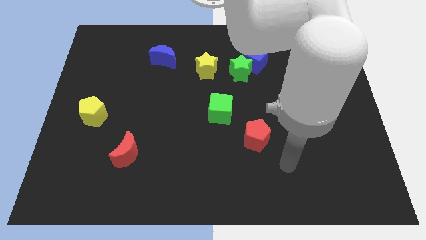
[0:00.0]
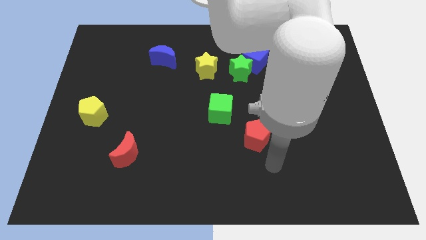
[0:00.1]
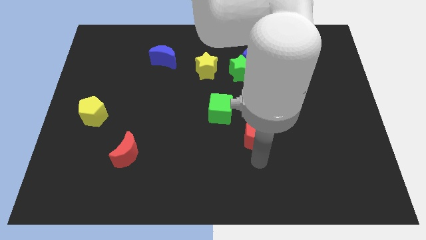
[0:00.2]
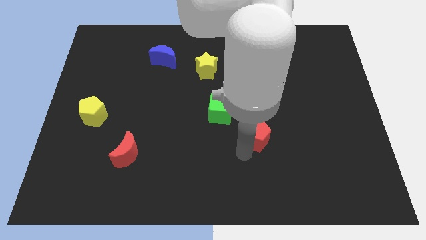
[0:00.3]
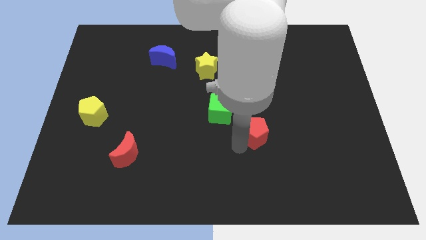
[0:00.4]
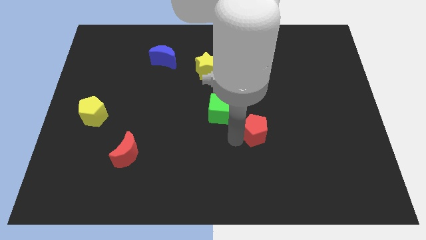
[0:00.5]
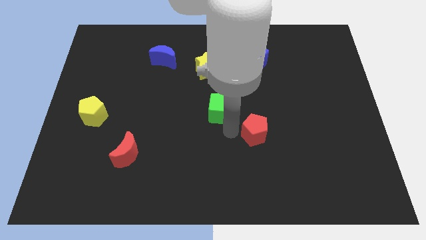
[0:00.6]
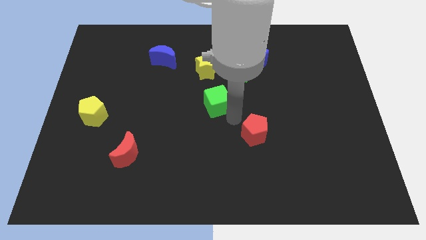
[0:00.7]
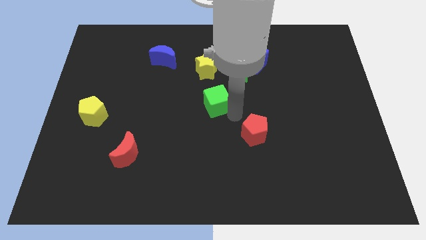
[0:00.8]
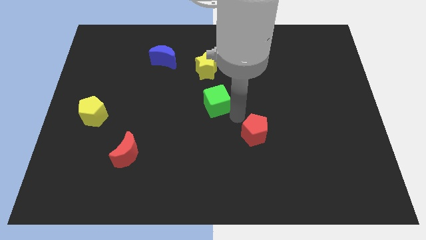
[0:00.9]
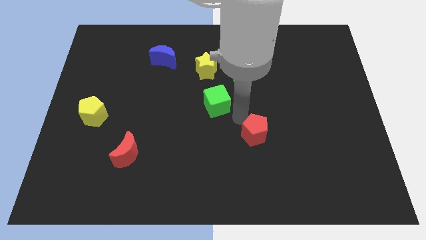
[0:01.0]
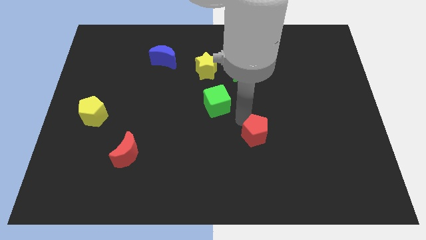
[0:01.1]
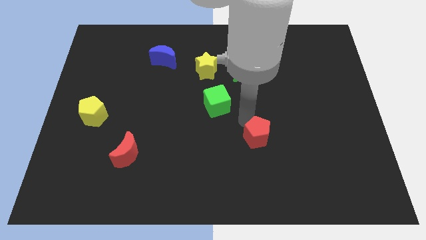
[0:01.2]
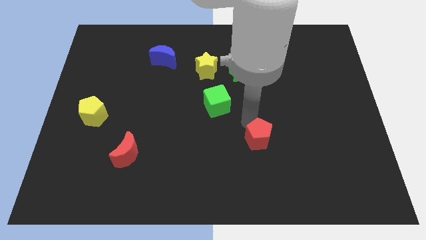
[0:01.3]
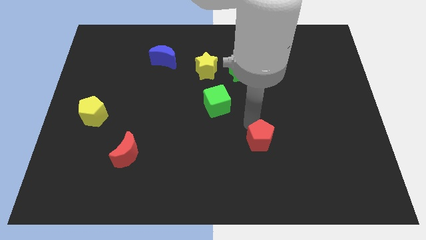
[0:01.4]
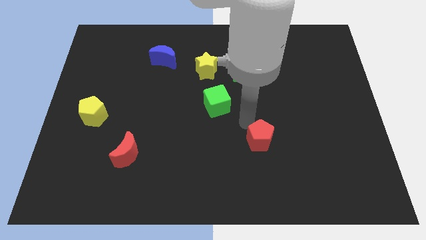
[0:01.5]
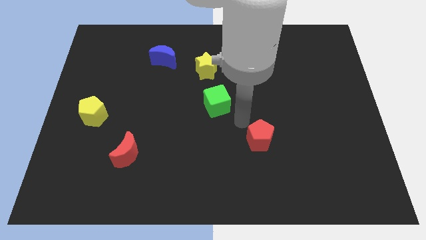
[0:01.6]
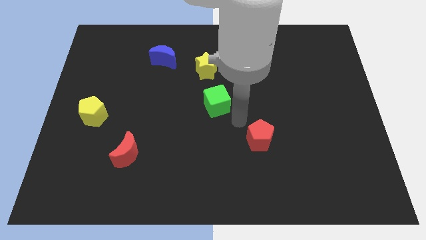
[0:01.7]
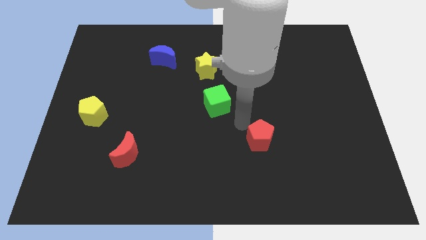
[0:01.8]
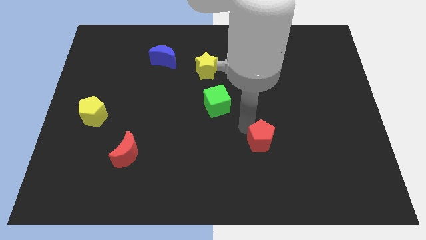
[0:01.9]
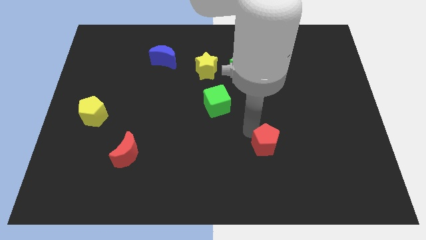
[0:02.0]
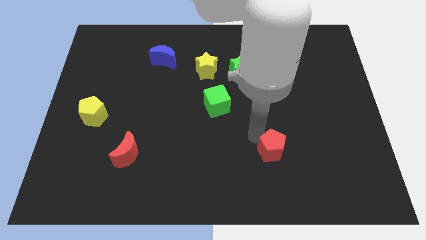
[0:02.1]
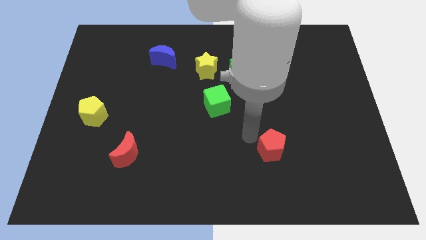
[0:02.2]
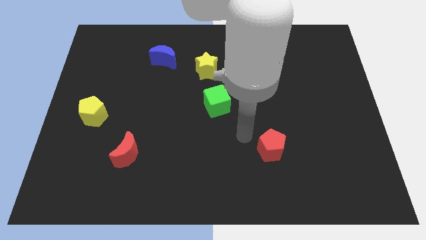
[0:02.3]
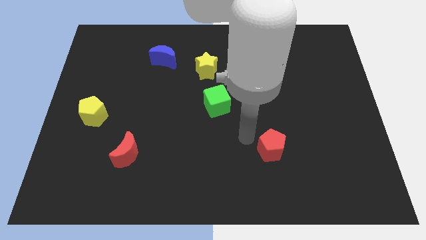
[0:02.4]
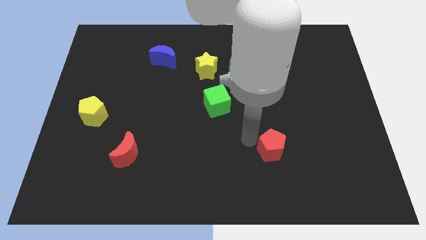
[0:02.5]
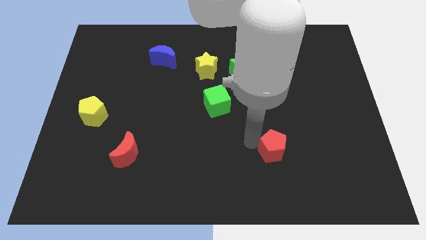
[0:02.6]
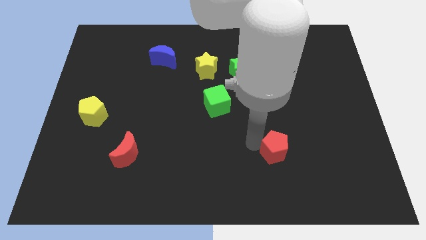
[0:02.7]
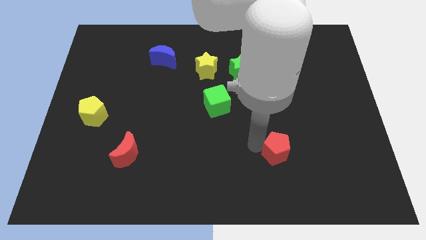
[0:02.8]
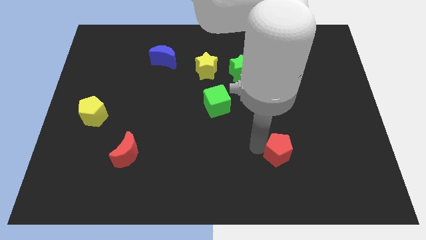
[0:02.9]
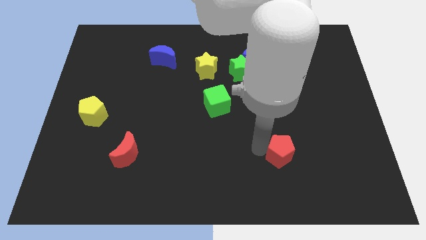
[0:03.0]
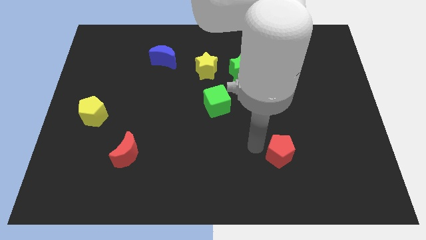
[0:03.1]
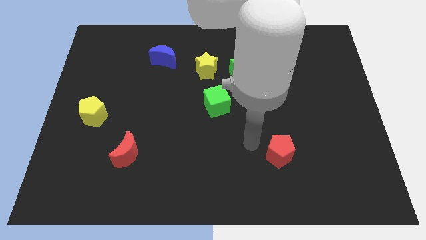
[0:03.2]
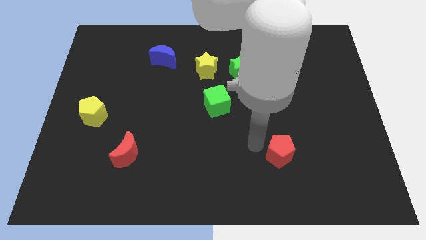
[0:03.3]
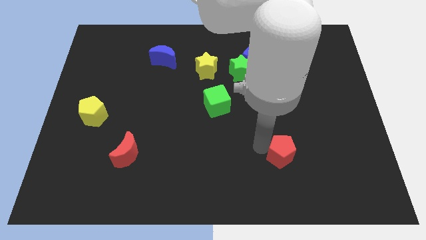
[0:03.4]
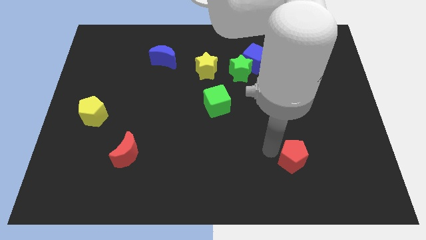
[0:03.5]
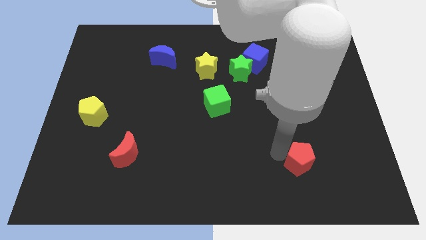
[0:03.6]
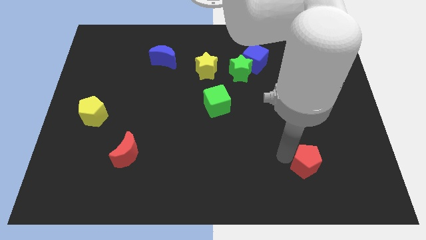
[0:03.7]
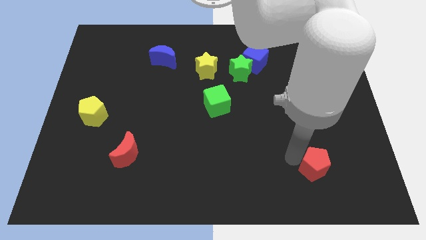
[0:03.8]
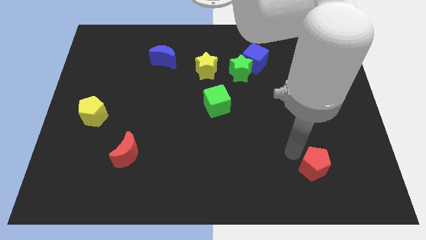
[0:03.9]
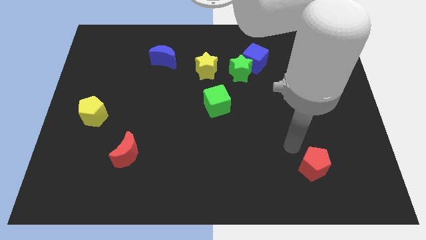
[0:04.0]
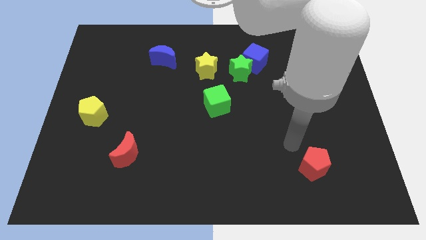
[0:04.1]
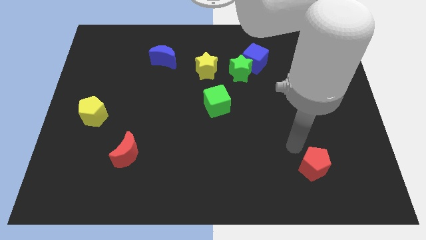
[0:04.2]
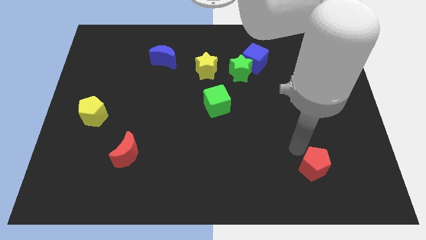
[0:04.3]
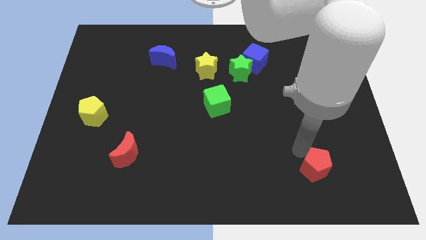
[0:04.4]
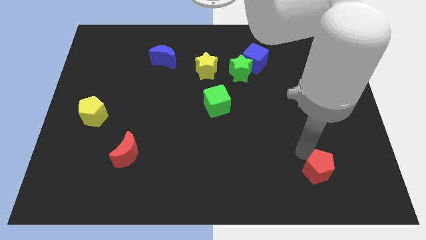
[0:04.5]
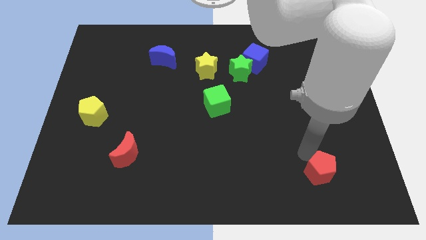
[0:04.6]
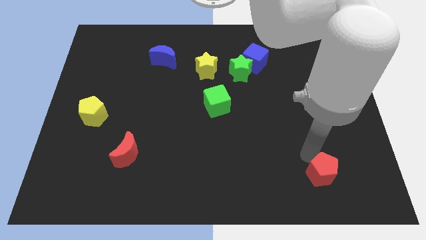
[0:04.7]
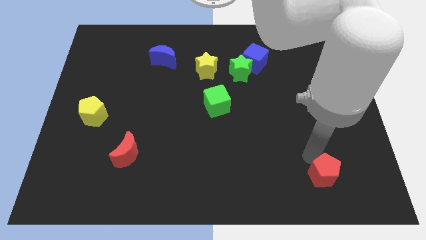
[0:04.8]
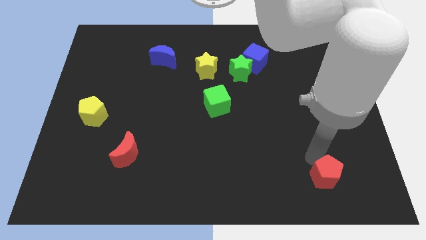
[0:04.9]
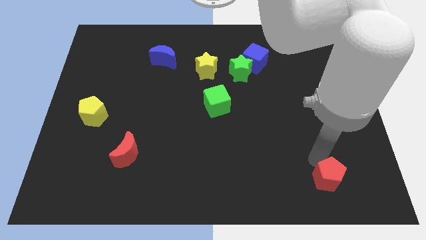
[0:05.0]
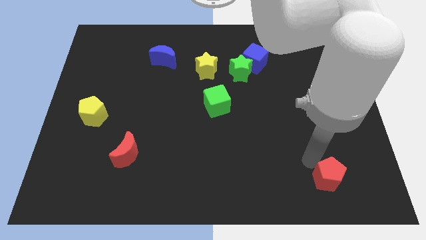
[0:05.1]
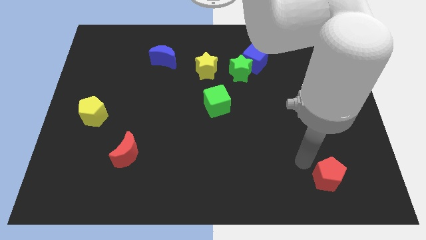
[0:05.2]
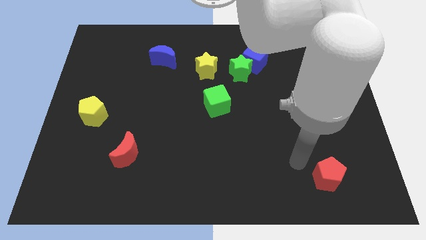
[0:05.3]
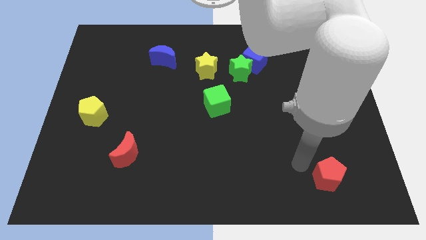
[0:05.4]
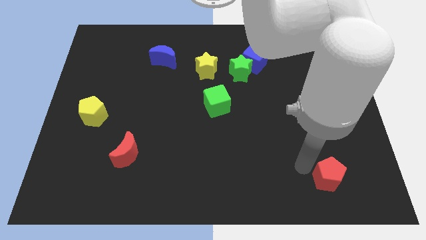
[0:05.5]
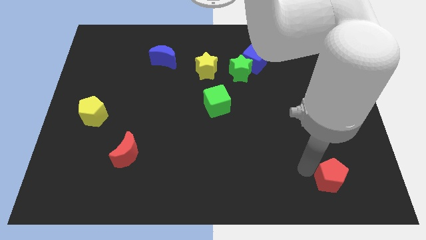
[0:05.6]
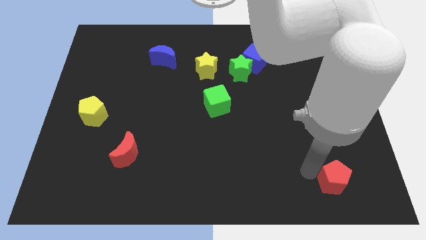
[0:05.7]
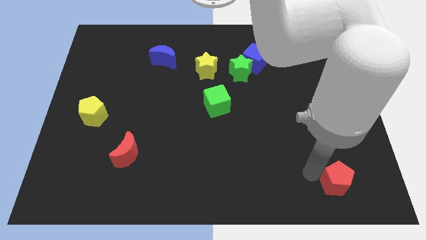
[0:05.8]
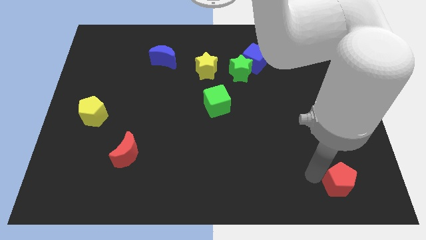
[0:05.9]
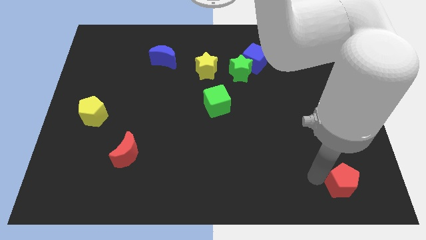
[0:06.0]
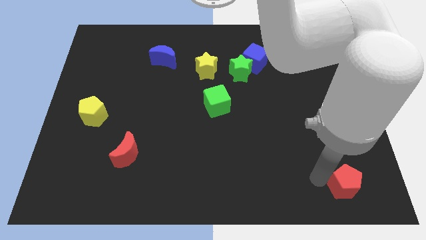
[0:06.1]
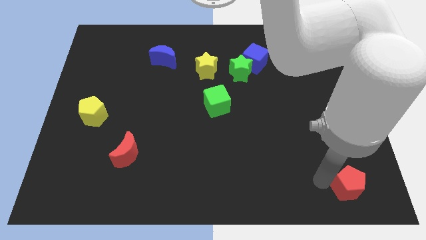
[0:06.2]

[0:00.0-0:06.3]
push the red pentagon to the lower right corner
